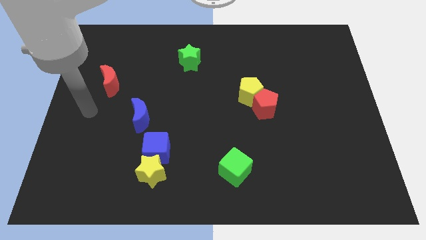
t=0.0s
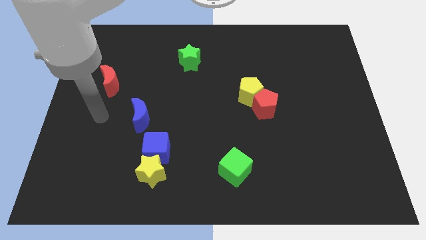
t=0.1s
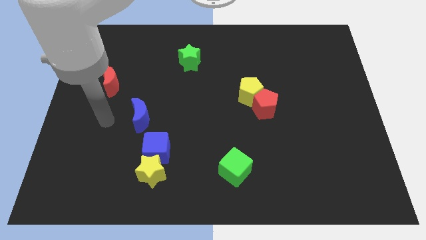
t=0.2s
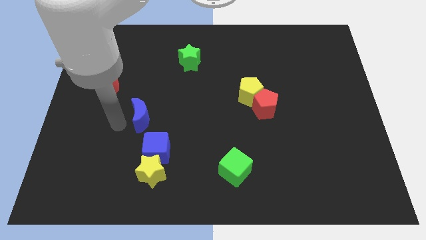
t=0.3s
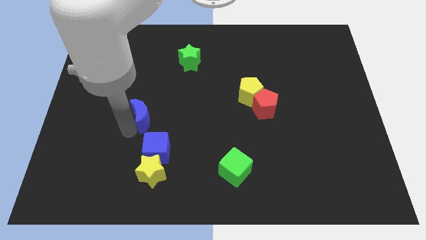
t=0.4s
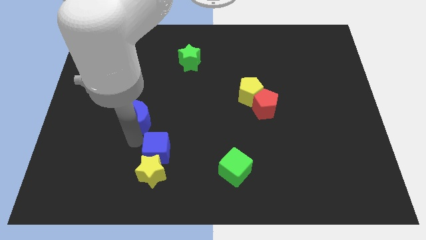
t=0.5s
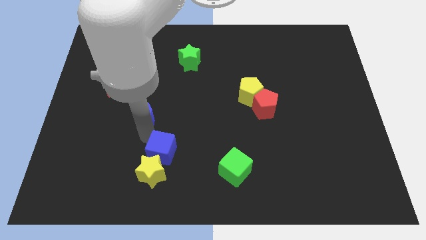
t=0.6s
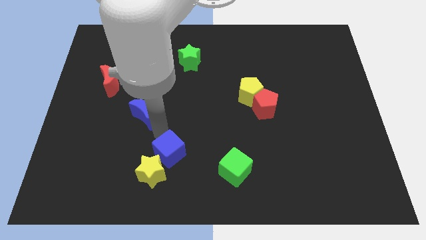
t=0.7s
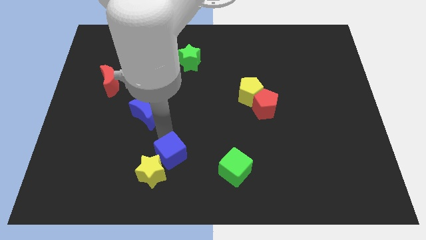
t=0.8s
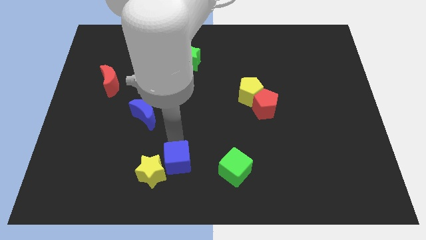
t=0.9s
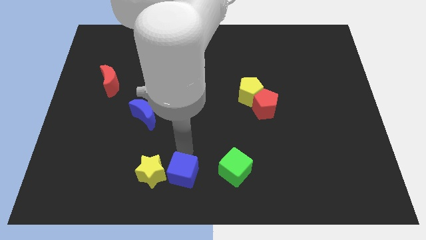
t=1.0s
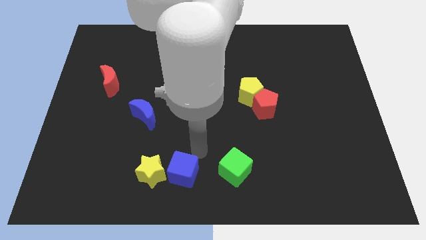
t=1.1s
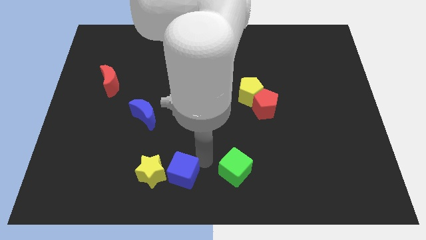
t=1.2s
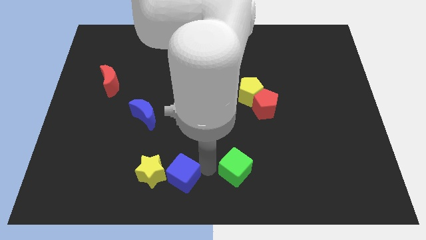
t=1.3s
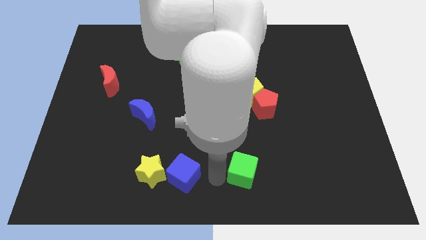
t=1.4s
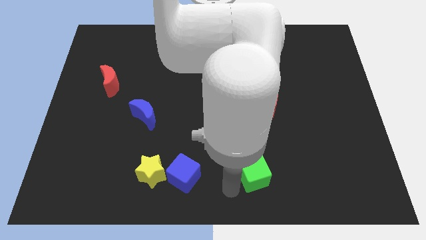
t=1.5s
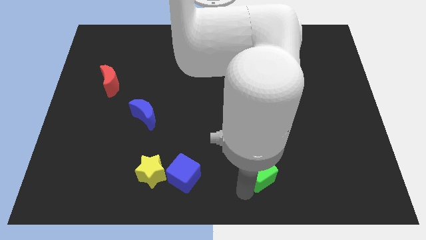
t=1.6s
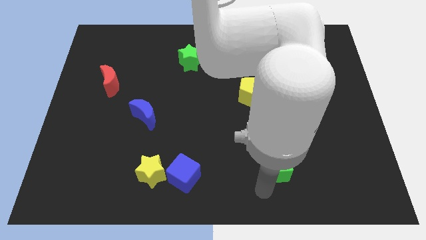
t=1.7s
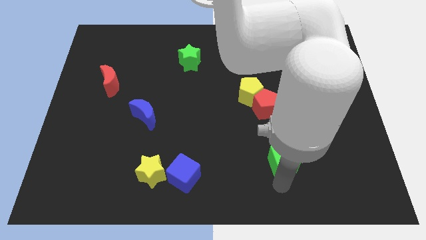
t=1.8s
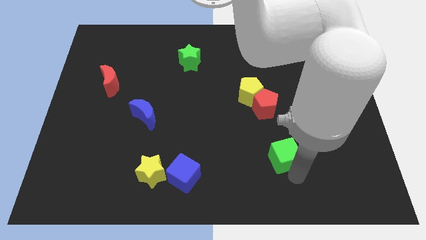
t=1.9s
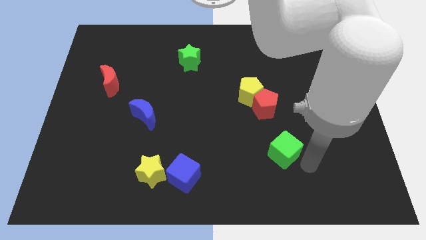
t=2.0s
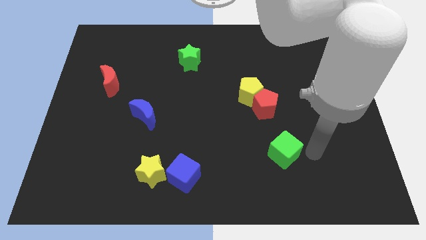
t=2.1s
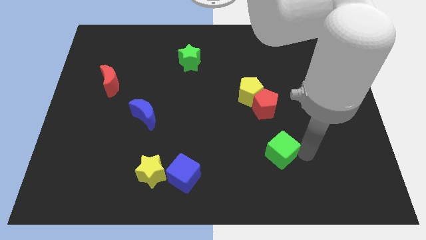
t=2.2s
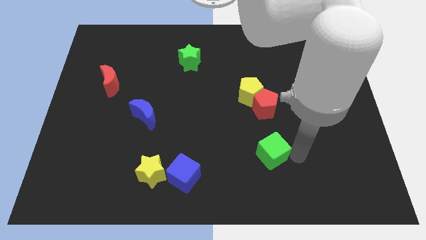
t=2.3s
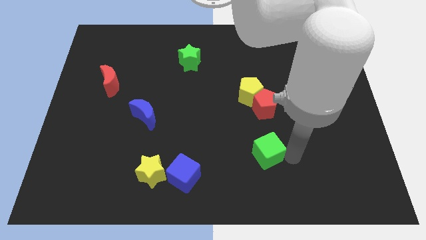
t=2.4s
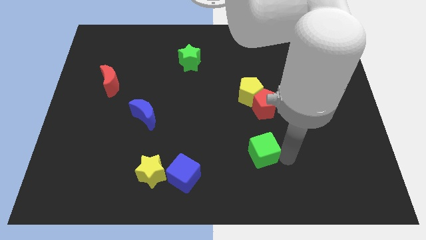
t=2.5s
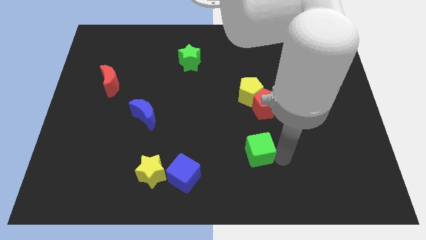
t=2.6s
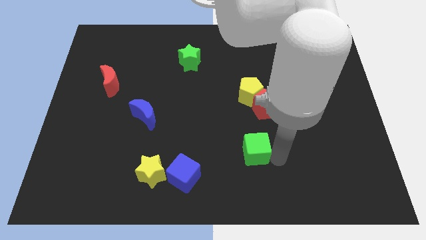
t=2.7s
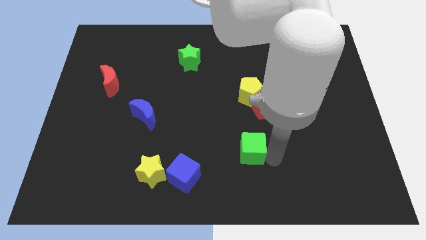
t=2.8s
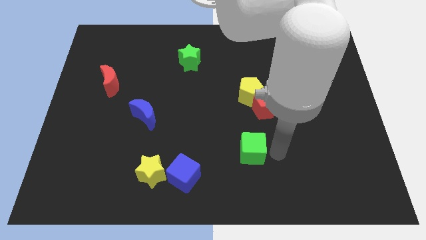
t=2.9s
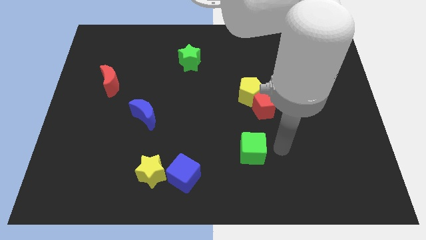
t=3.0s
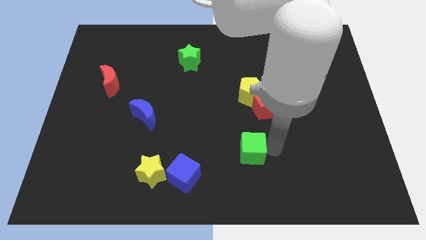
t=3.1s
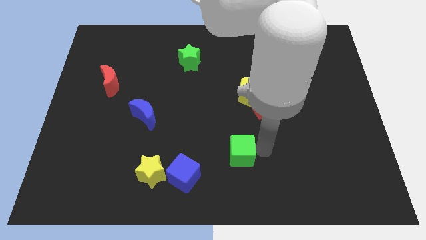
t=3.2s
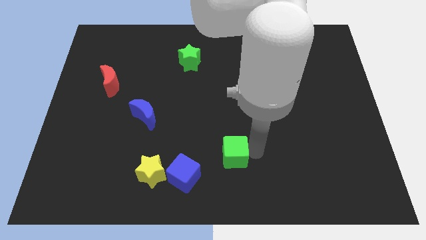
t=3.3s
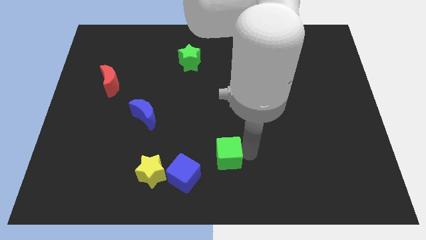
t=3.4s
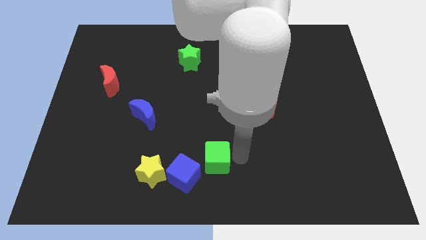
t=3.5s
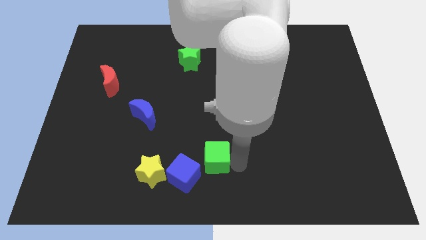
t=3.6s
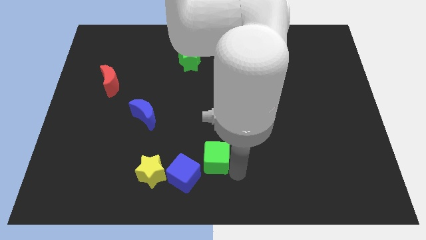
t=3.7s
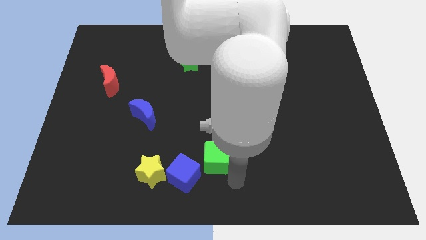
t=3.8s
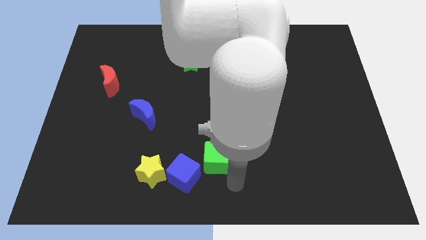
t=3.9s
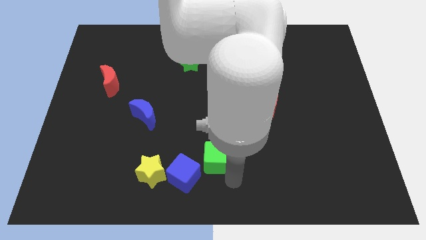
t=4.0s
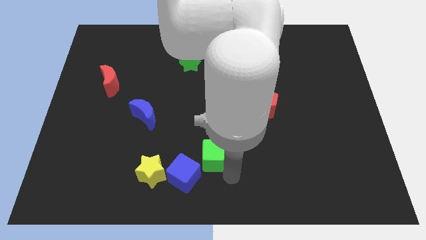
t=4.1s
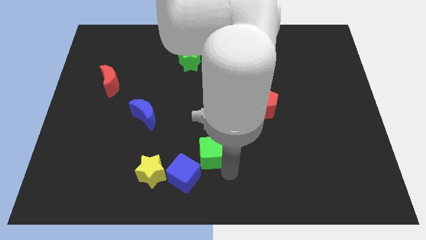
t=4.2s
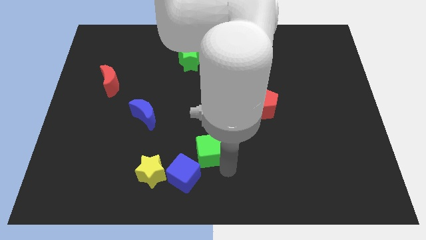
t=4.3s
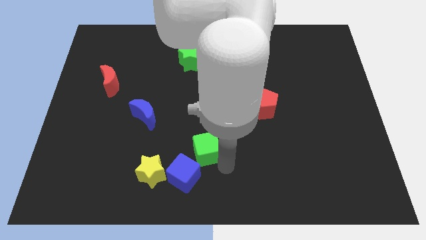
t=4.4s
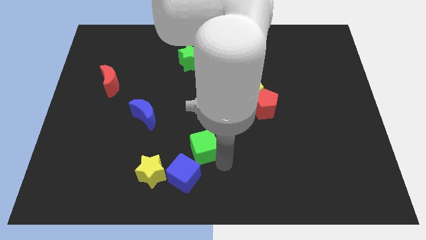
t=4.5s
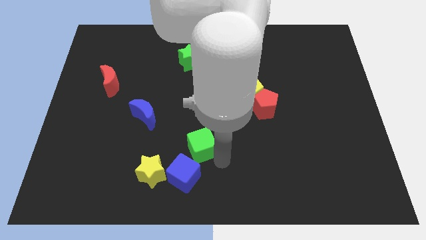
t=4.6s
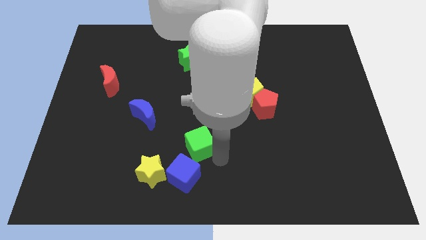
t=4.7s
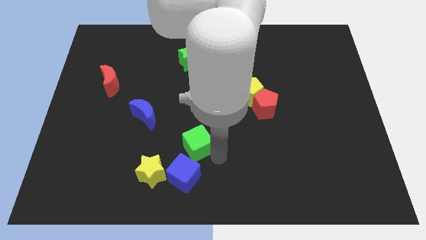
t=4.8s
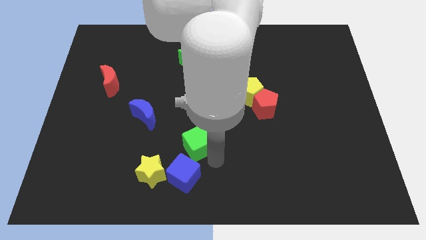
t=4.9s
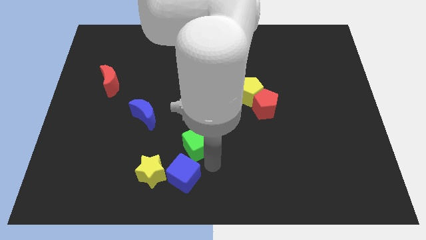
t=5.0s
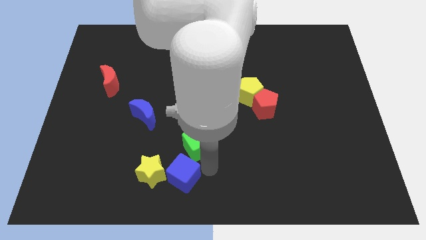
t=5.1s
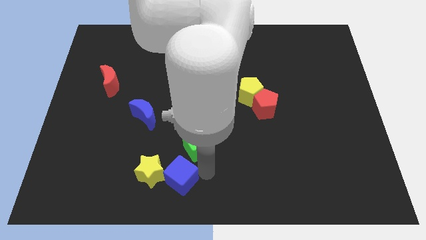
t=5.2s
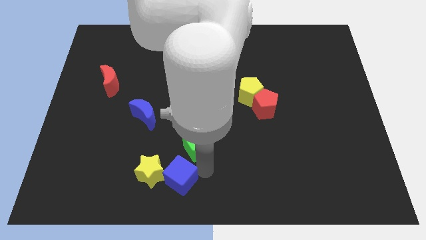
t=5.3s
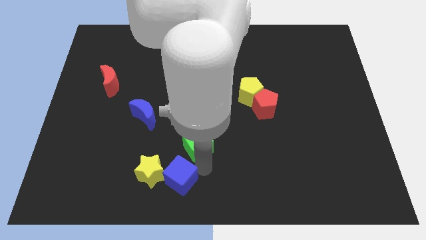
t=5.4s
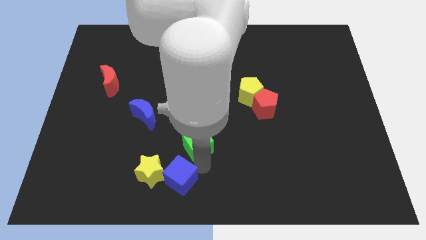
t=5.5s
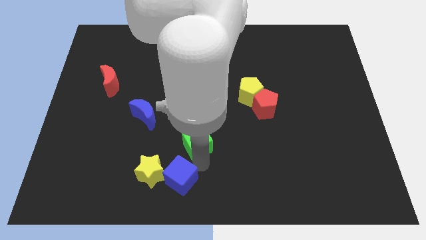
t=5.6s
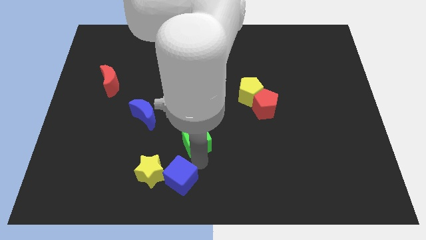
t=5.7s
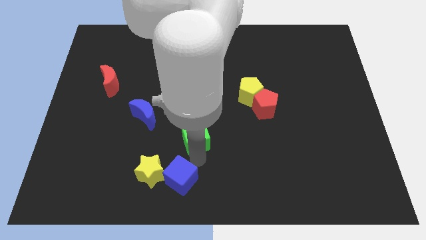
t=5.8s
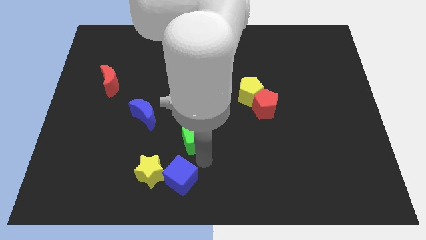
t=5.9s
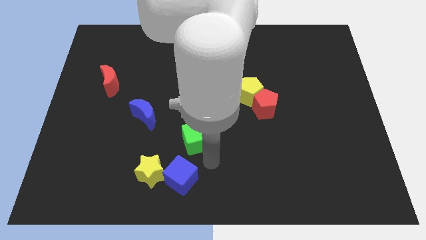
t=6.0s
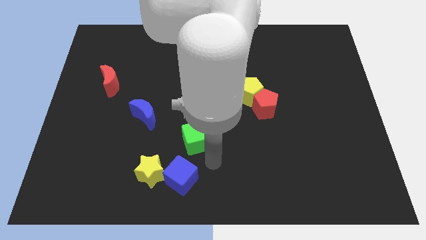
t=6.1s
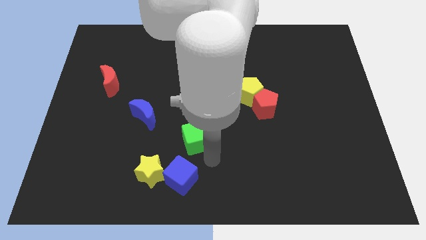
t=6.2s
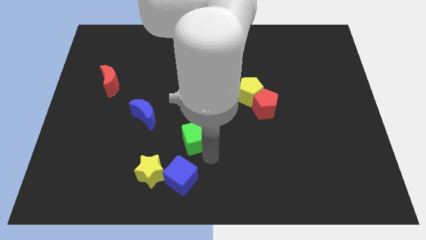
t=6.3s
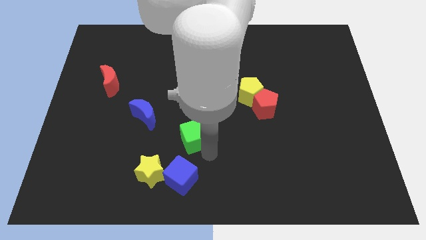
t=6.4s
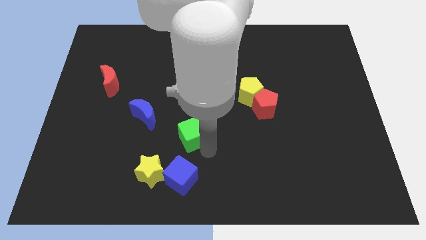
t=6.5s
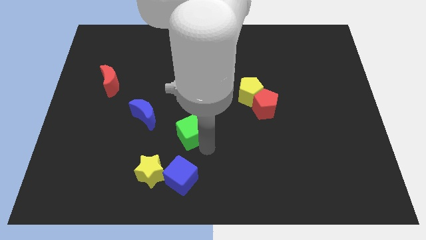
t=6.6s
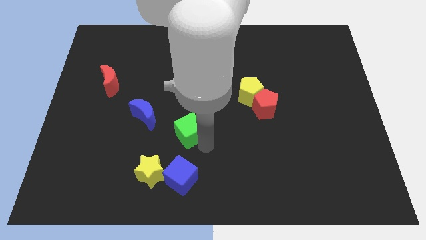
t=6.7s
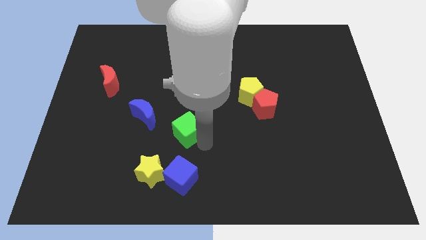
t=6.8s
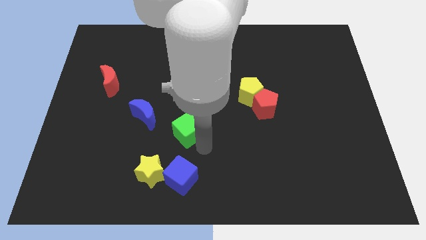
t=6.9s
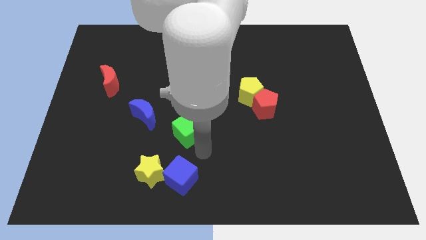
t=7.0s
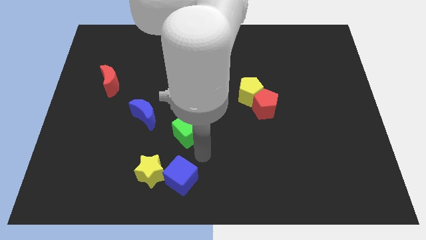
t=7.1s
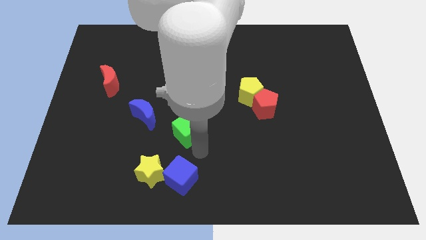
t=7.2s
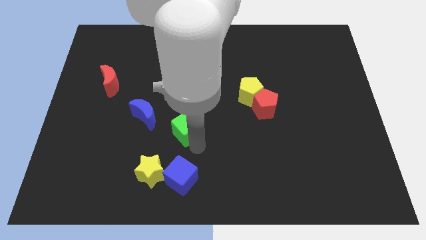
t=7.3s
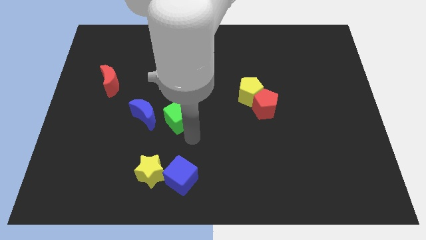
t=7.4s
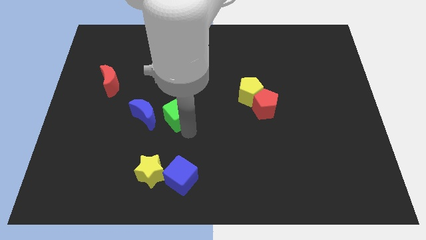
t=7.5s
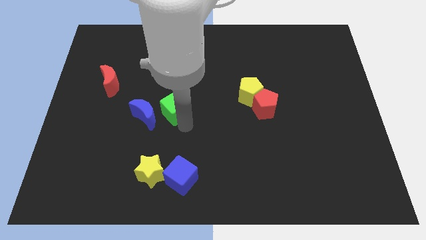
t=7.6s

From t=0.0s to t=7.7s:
slide the green cube upwards and left

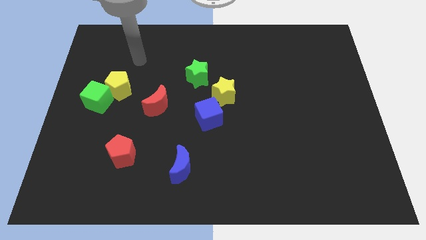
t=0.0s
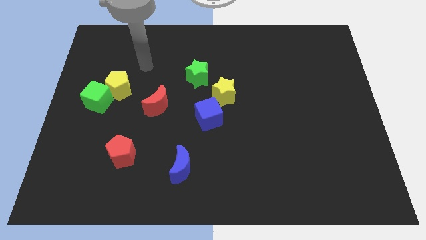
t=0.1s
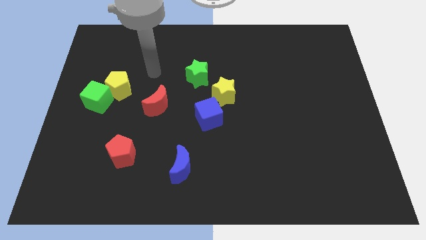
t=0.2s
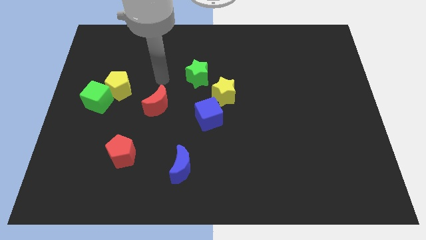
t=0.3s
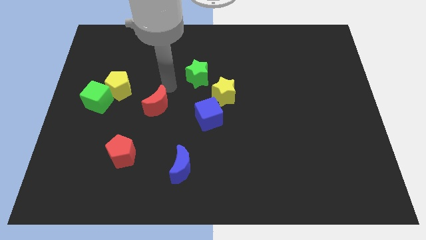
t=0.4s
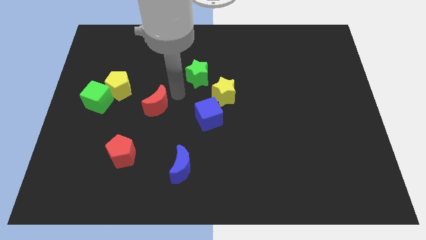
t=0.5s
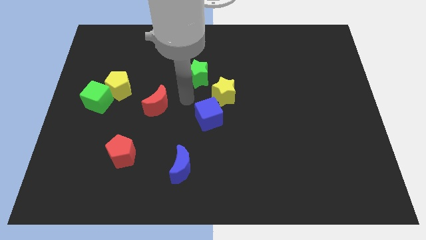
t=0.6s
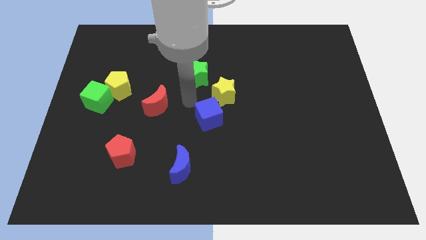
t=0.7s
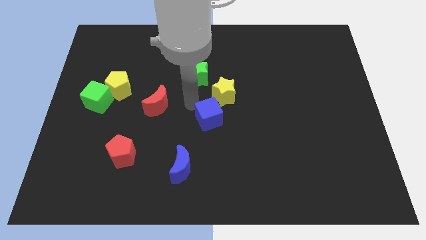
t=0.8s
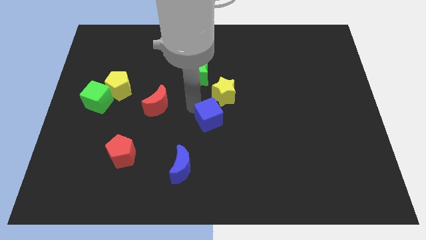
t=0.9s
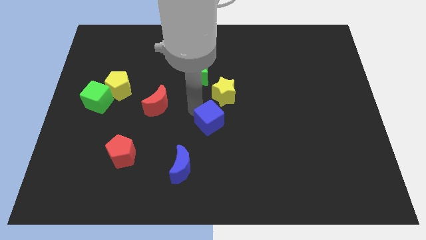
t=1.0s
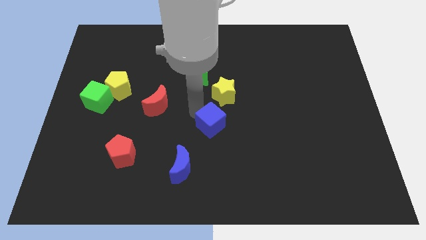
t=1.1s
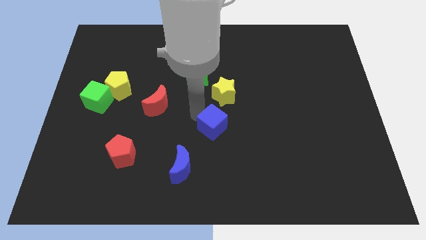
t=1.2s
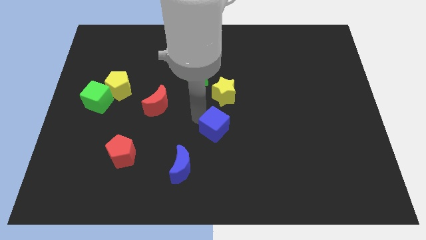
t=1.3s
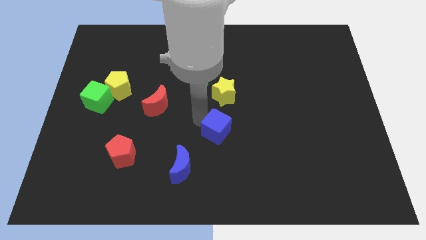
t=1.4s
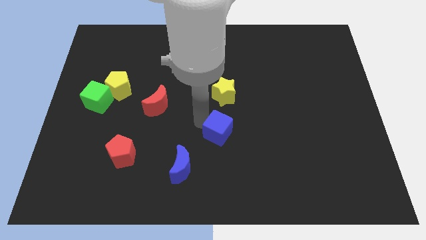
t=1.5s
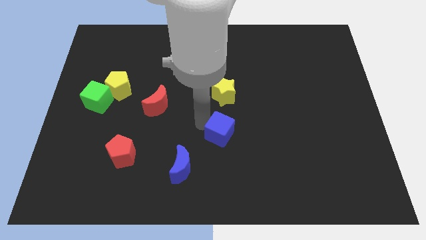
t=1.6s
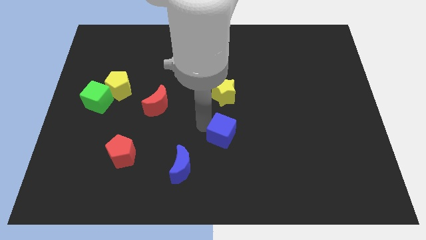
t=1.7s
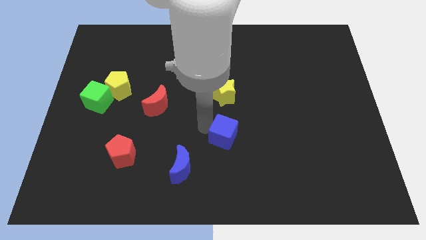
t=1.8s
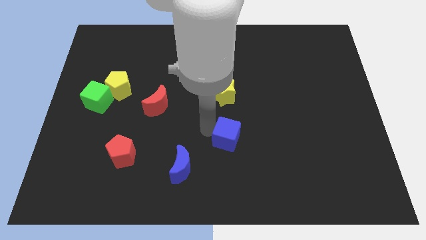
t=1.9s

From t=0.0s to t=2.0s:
slide the blue cube a little bit downwards and right
